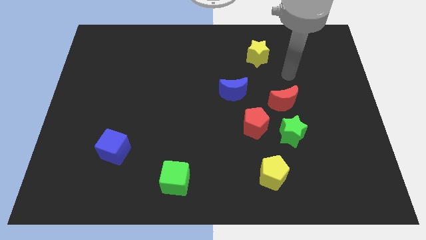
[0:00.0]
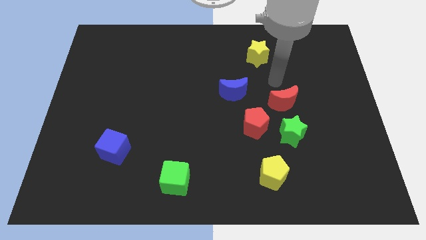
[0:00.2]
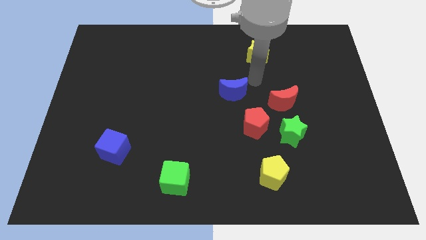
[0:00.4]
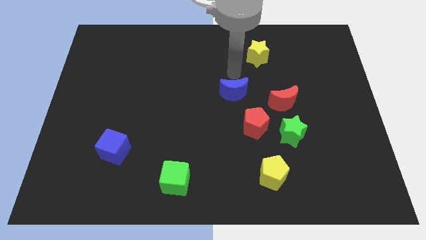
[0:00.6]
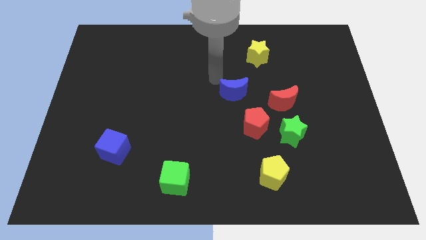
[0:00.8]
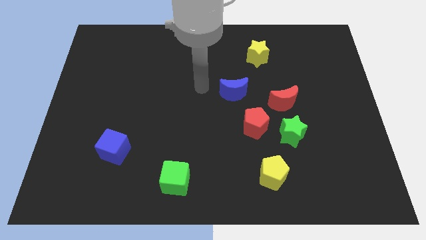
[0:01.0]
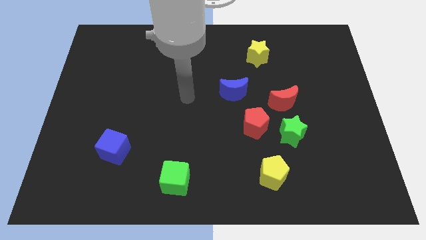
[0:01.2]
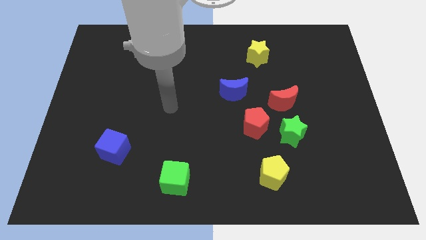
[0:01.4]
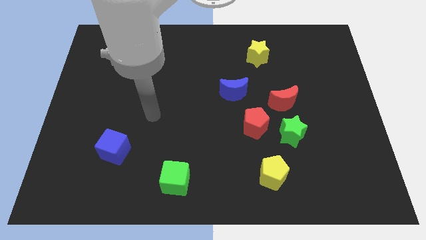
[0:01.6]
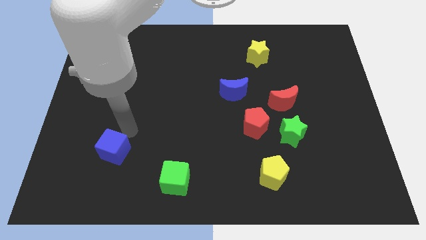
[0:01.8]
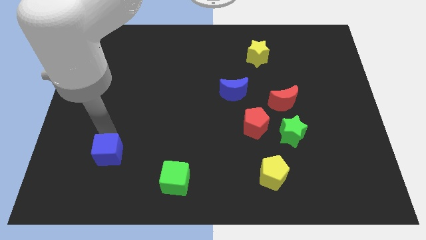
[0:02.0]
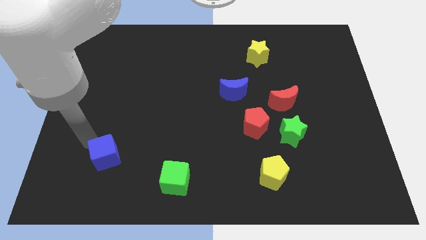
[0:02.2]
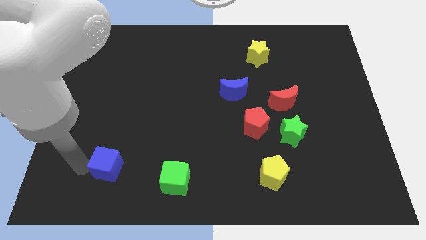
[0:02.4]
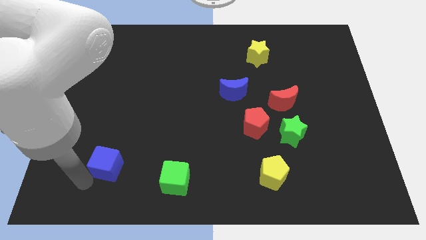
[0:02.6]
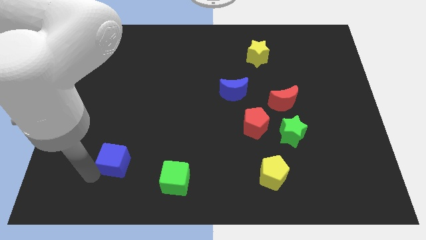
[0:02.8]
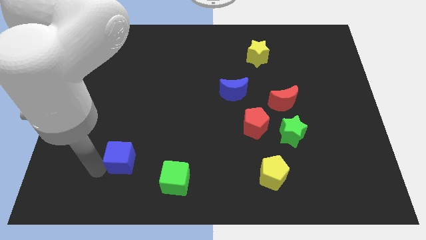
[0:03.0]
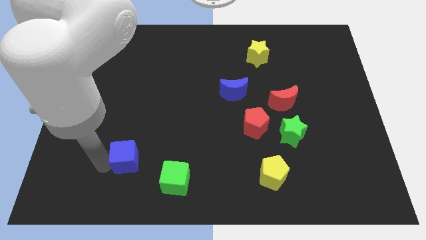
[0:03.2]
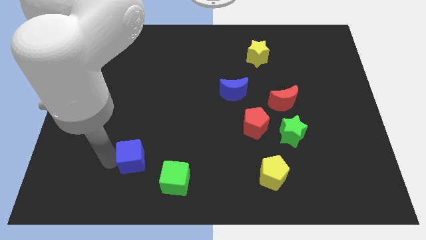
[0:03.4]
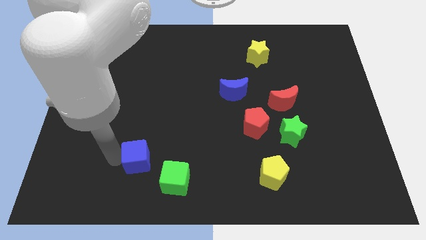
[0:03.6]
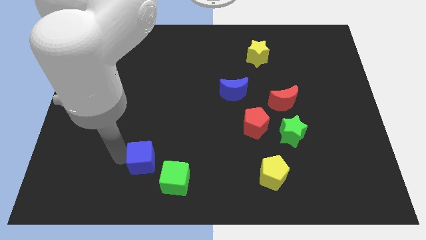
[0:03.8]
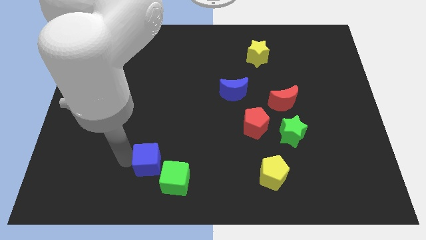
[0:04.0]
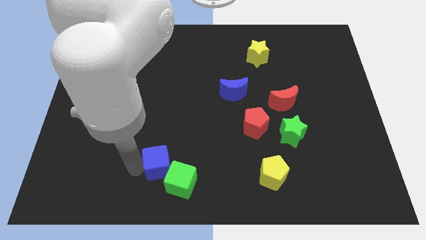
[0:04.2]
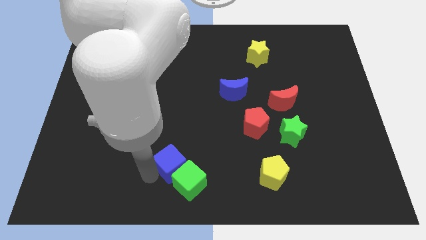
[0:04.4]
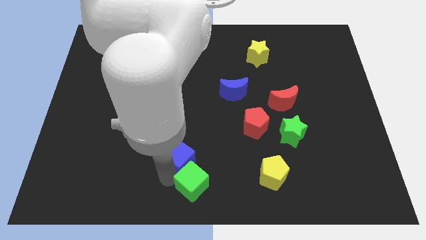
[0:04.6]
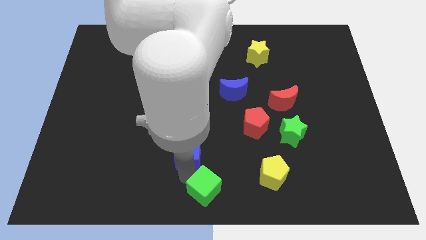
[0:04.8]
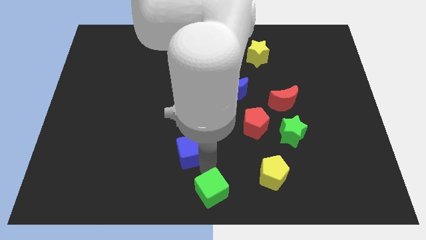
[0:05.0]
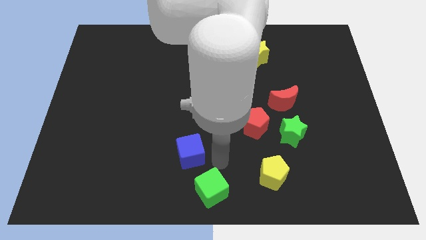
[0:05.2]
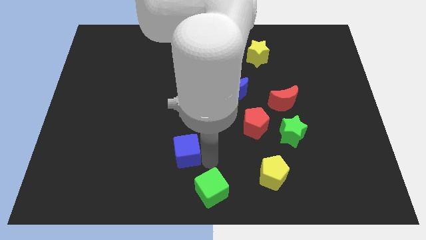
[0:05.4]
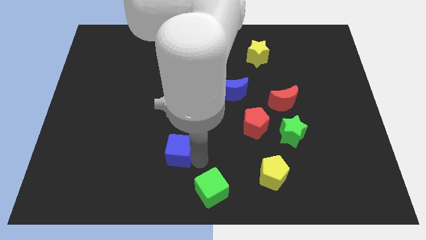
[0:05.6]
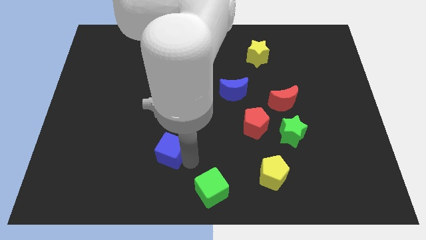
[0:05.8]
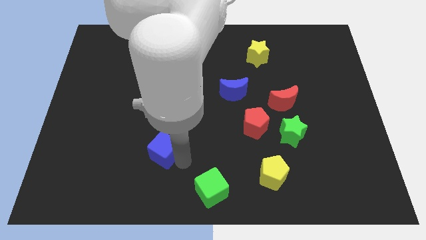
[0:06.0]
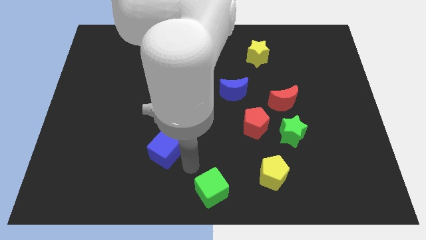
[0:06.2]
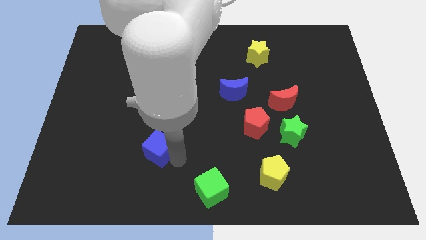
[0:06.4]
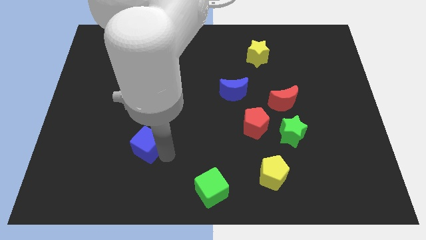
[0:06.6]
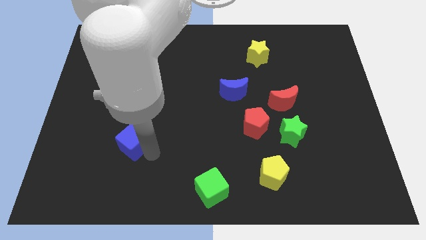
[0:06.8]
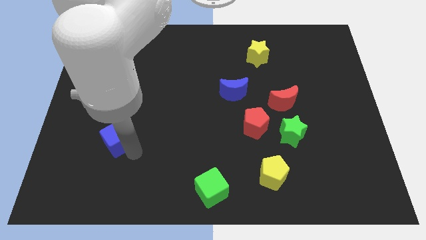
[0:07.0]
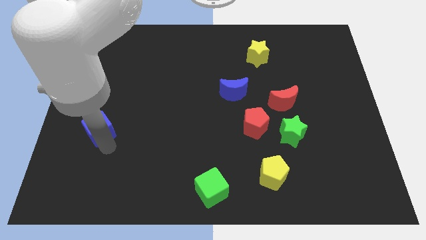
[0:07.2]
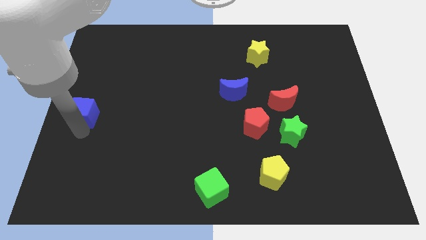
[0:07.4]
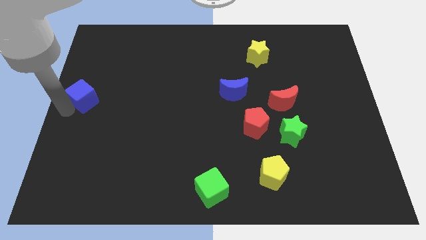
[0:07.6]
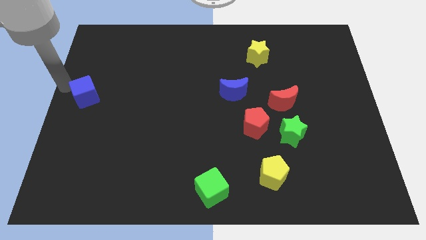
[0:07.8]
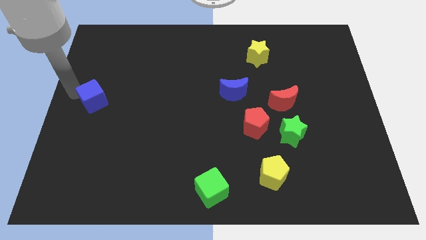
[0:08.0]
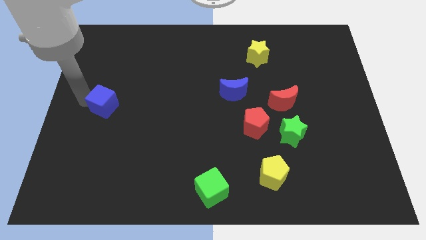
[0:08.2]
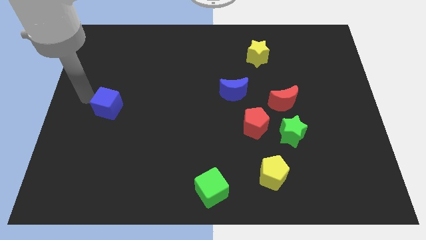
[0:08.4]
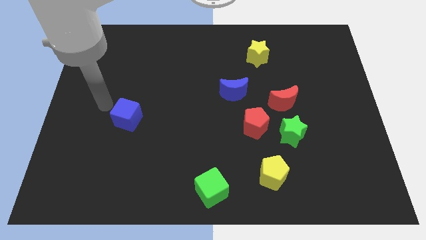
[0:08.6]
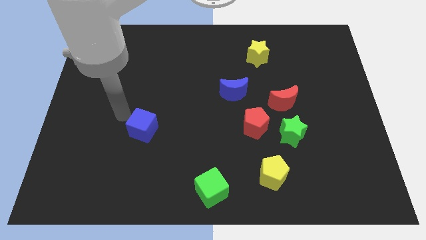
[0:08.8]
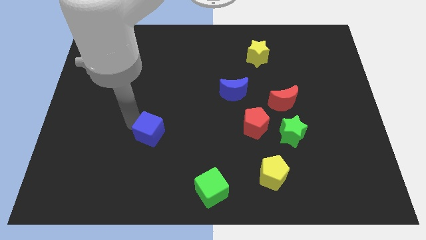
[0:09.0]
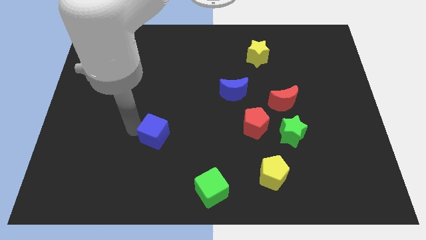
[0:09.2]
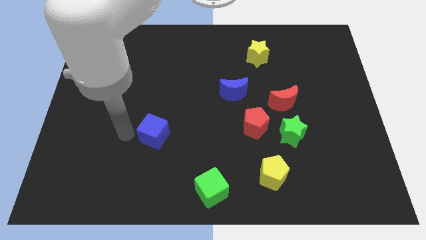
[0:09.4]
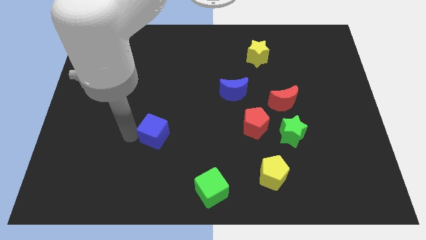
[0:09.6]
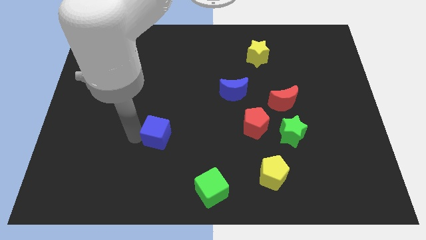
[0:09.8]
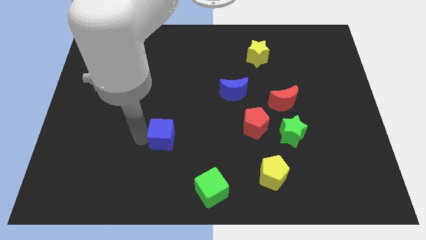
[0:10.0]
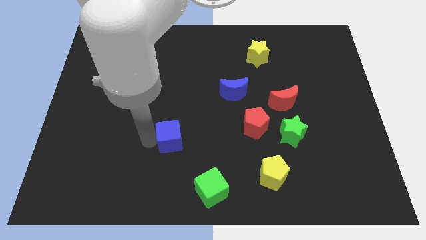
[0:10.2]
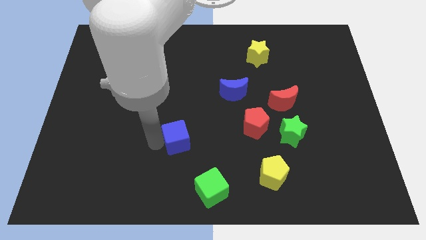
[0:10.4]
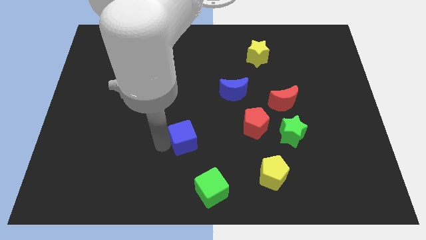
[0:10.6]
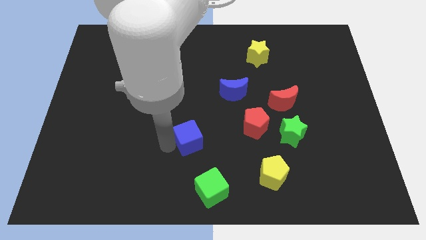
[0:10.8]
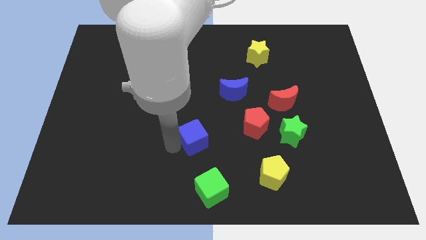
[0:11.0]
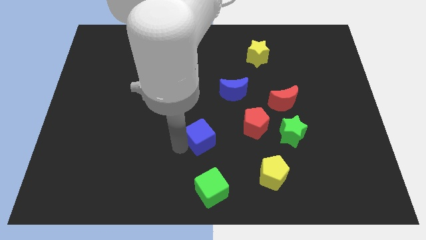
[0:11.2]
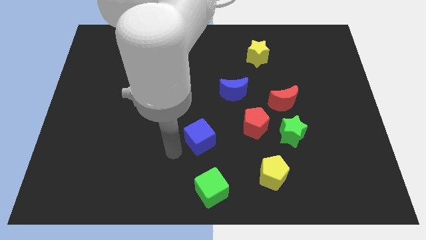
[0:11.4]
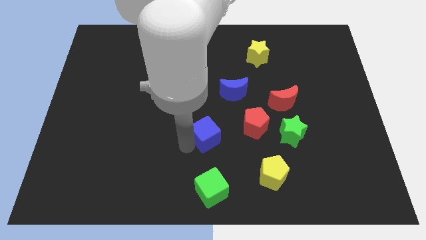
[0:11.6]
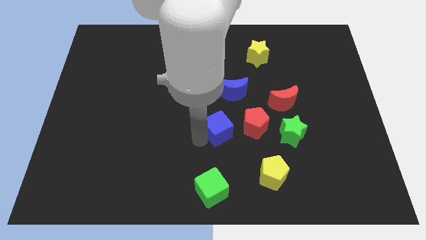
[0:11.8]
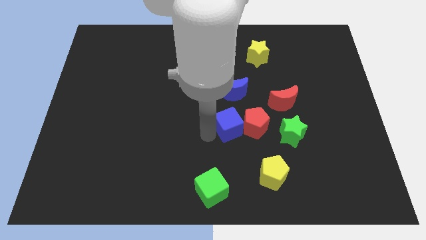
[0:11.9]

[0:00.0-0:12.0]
push the blue cube next to the red pentagon
